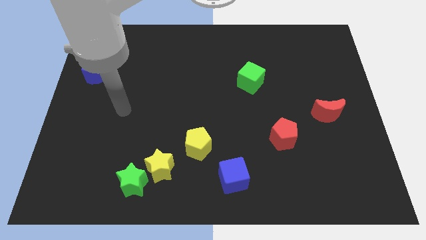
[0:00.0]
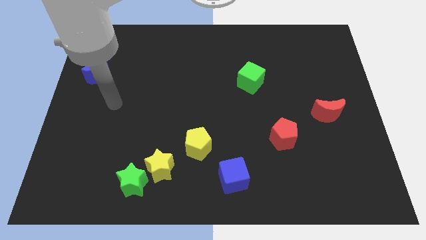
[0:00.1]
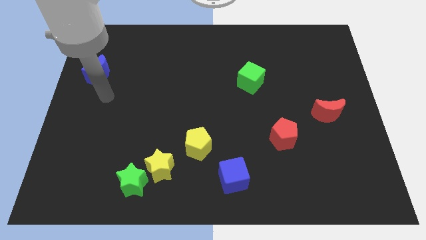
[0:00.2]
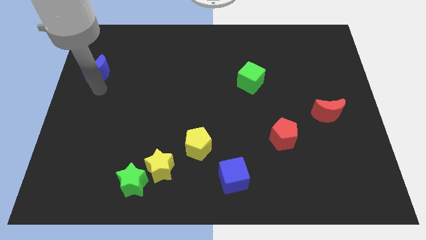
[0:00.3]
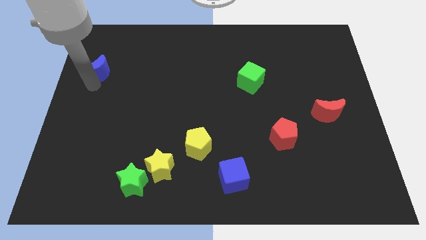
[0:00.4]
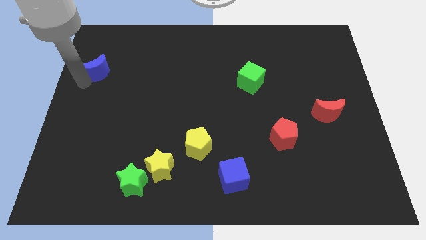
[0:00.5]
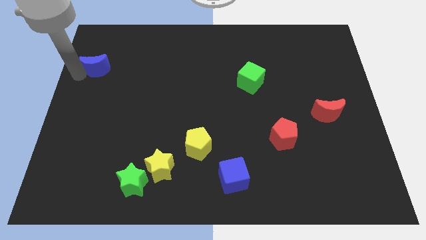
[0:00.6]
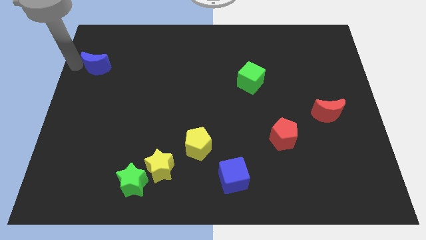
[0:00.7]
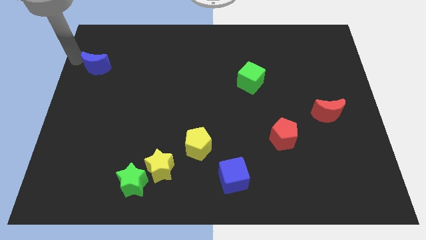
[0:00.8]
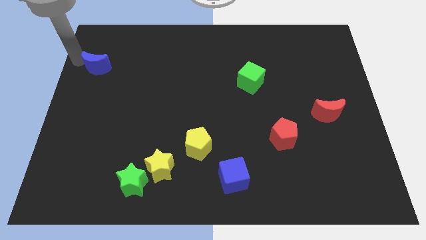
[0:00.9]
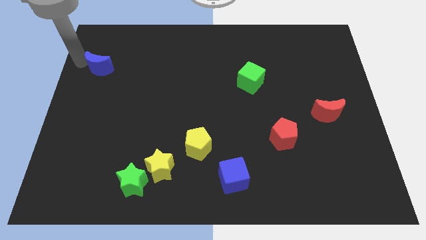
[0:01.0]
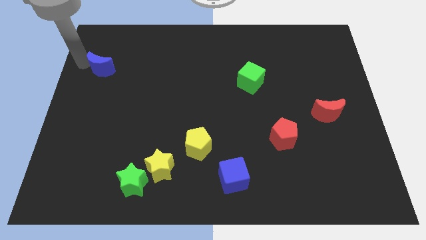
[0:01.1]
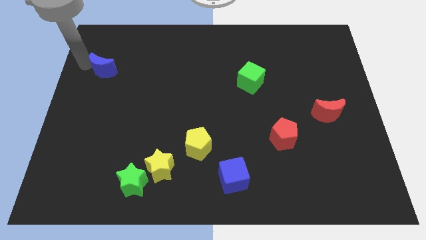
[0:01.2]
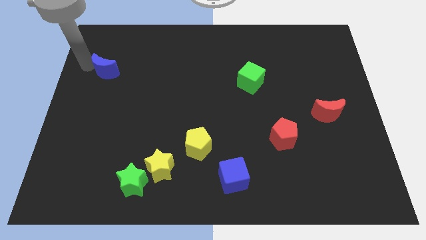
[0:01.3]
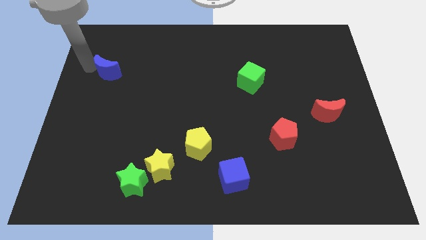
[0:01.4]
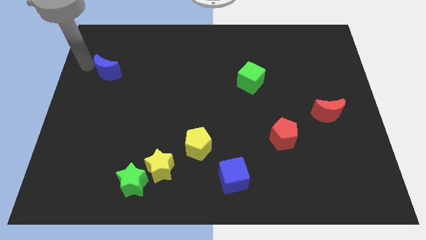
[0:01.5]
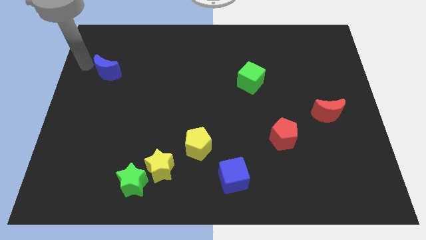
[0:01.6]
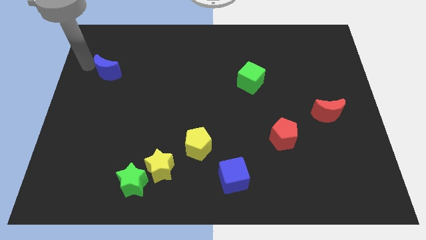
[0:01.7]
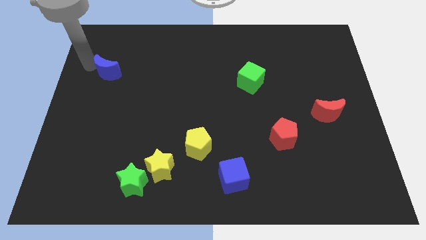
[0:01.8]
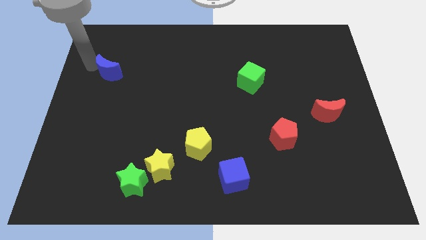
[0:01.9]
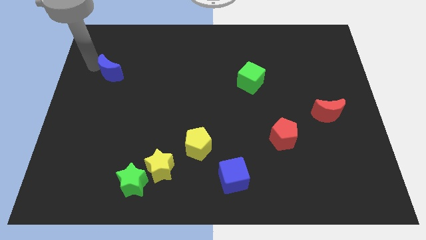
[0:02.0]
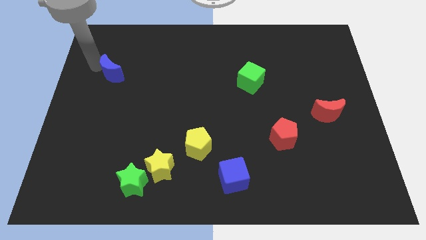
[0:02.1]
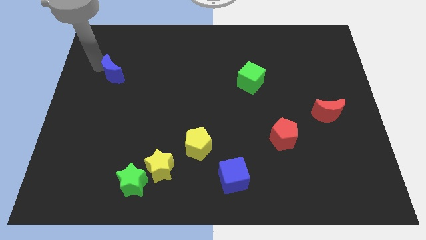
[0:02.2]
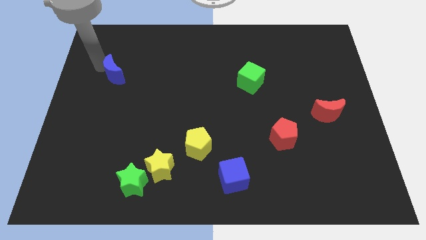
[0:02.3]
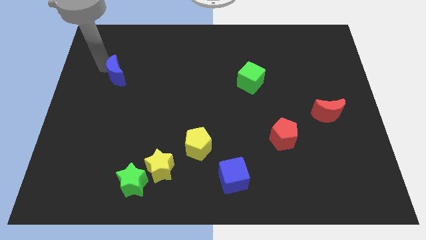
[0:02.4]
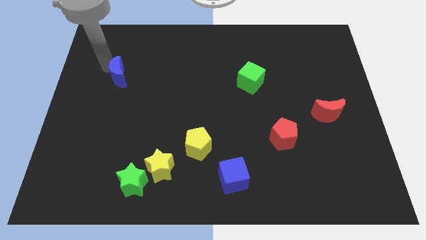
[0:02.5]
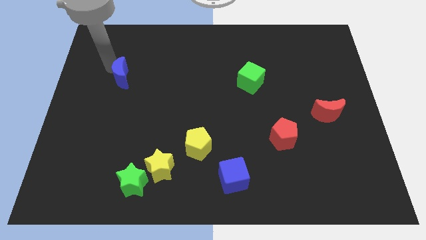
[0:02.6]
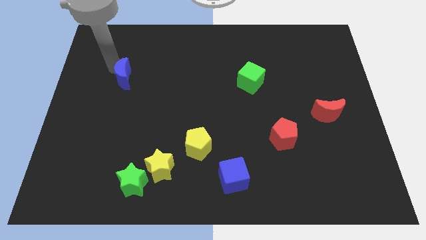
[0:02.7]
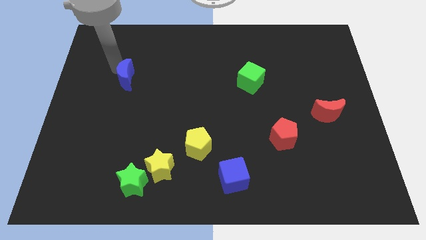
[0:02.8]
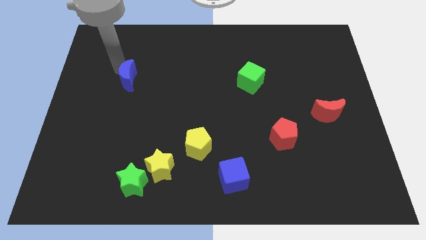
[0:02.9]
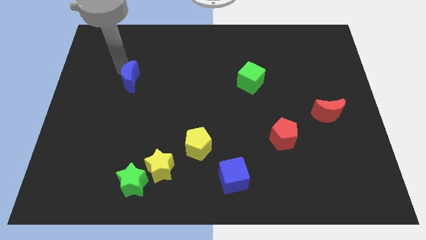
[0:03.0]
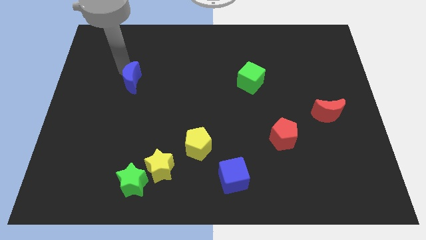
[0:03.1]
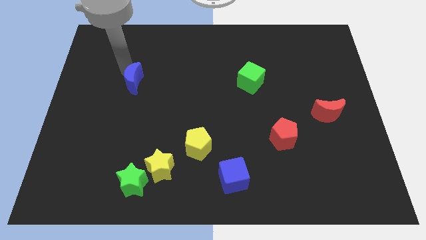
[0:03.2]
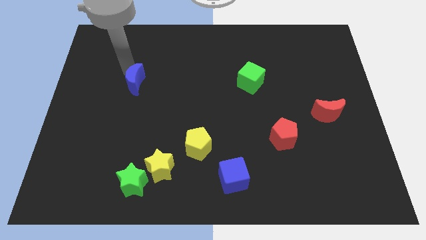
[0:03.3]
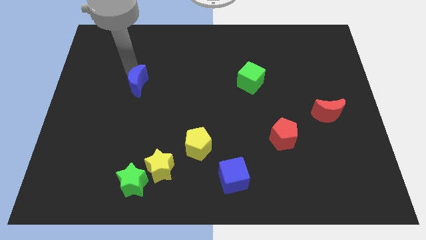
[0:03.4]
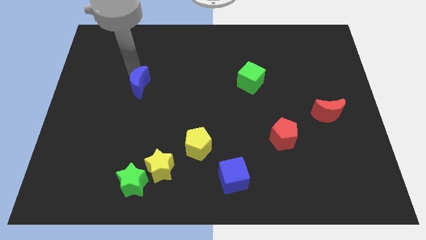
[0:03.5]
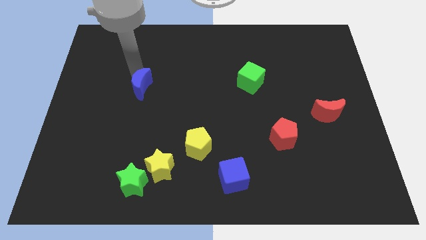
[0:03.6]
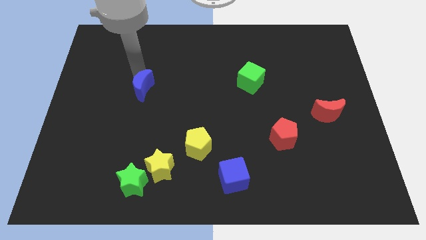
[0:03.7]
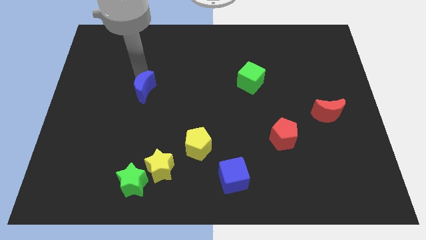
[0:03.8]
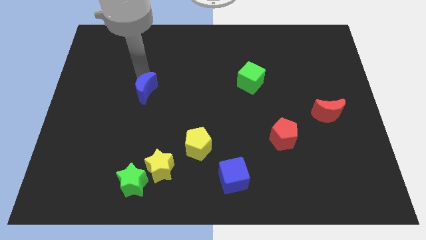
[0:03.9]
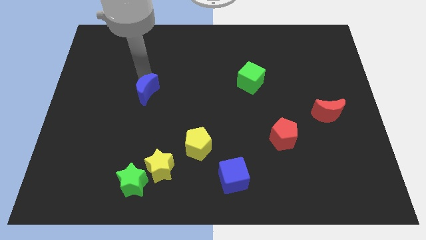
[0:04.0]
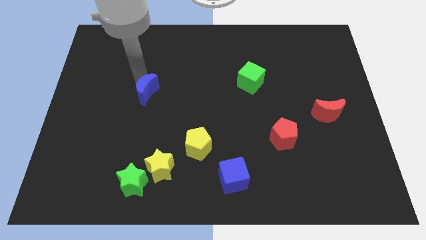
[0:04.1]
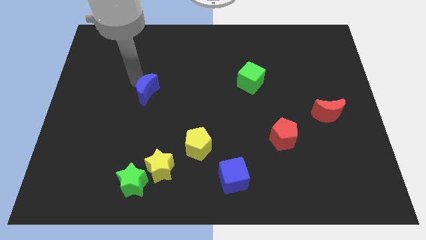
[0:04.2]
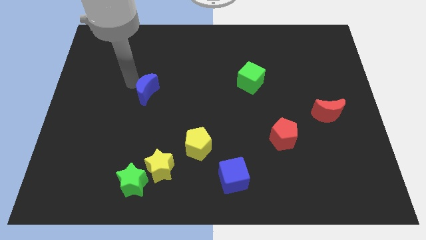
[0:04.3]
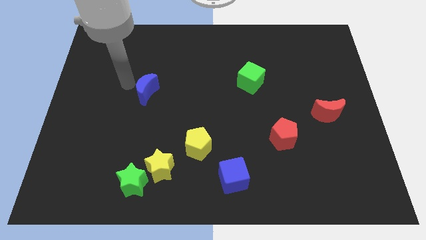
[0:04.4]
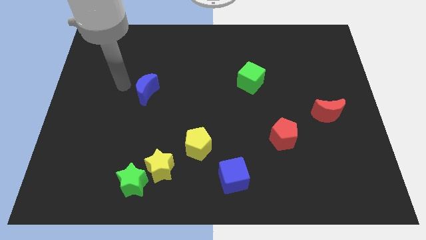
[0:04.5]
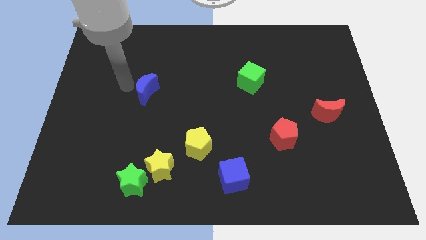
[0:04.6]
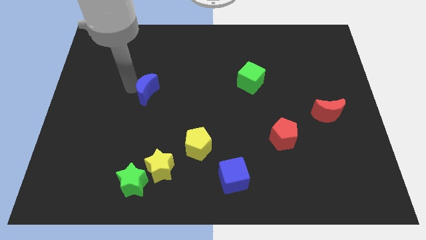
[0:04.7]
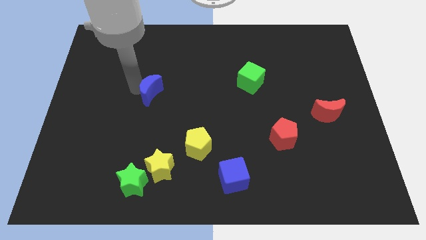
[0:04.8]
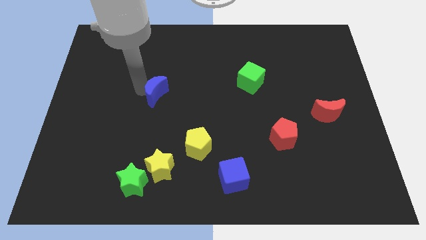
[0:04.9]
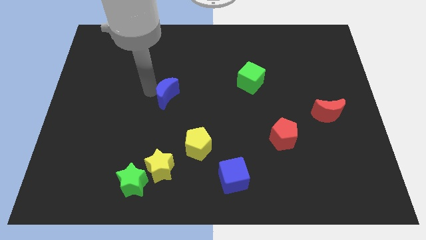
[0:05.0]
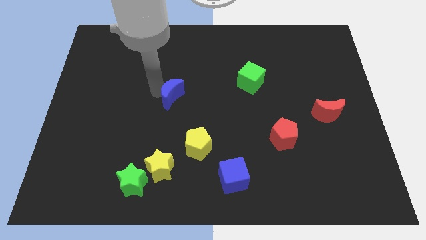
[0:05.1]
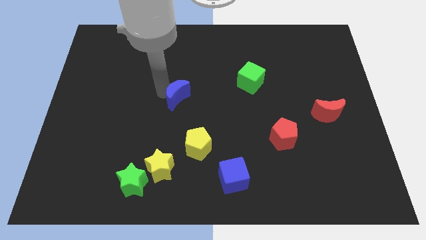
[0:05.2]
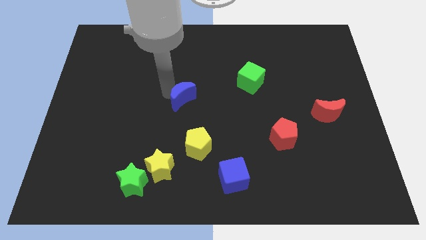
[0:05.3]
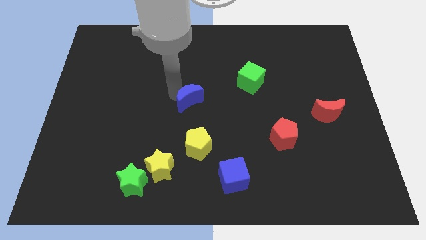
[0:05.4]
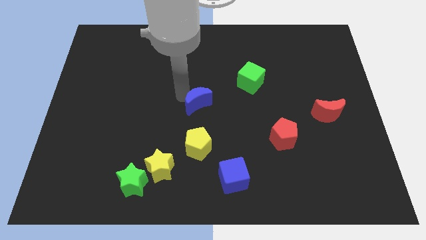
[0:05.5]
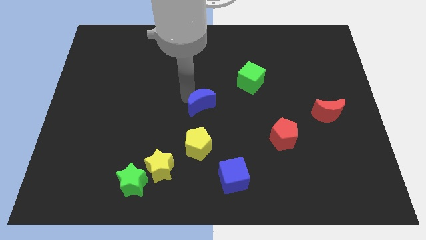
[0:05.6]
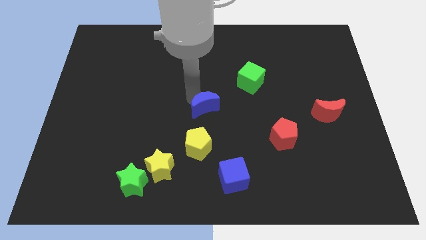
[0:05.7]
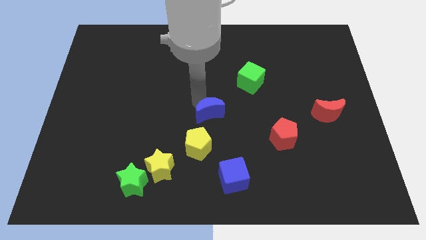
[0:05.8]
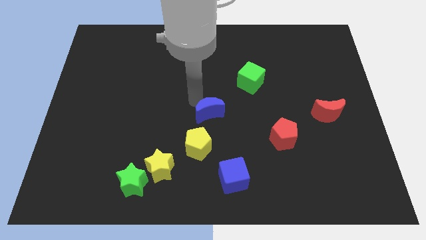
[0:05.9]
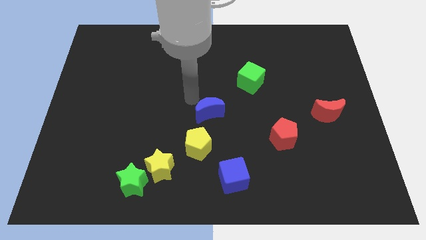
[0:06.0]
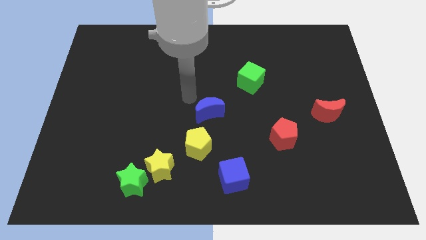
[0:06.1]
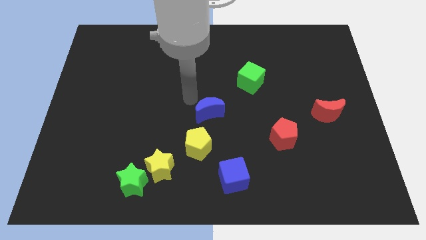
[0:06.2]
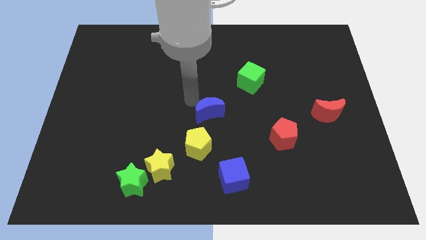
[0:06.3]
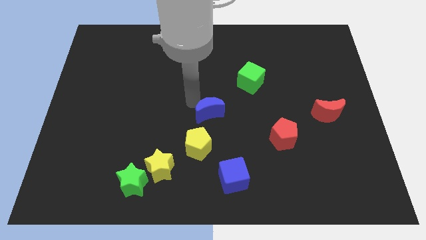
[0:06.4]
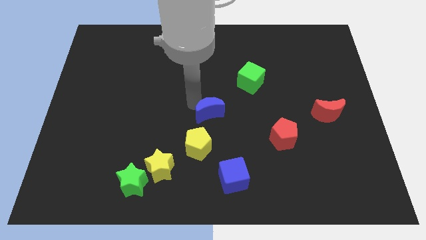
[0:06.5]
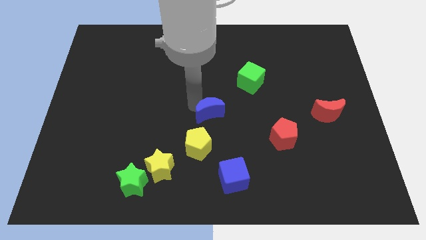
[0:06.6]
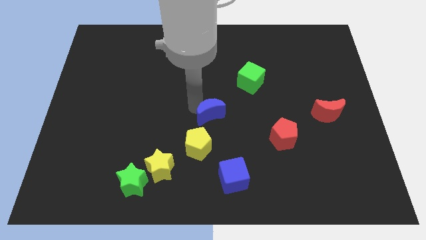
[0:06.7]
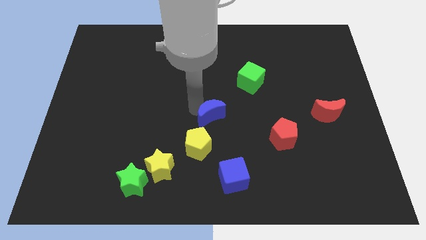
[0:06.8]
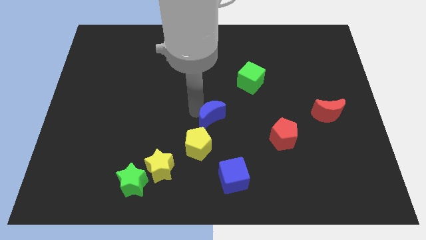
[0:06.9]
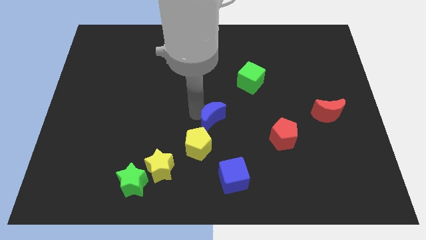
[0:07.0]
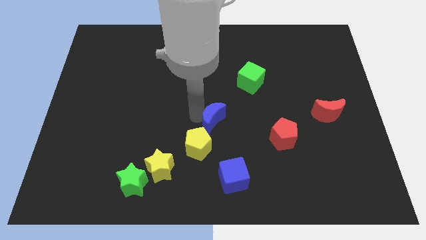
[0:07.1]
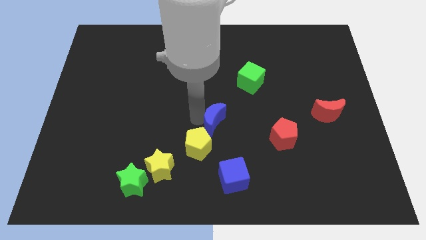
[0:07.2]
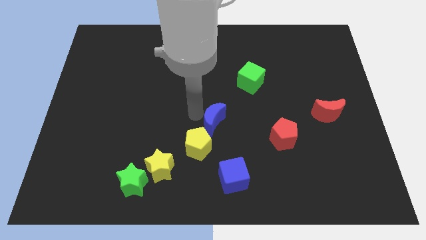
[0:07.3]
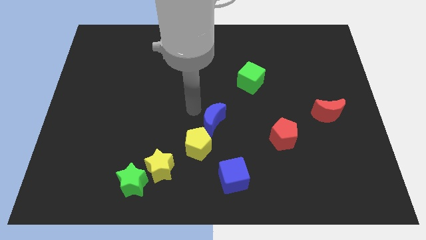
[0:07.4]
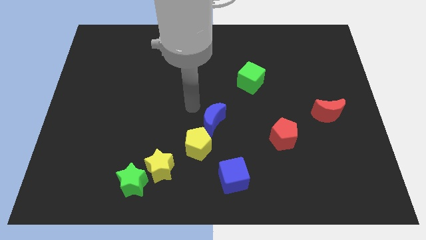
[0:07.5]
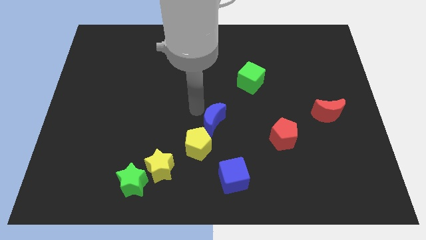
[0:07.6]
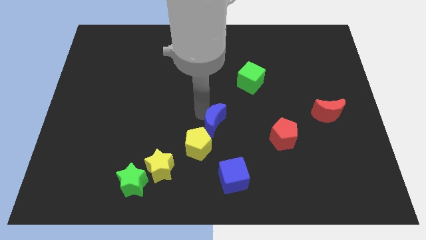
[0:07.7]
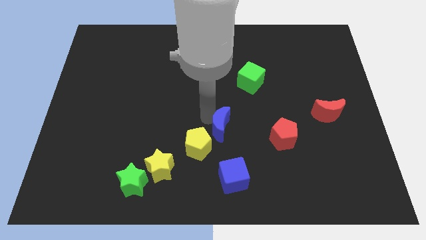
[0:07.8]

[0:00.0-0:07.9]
slide the blue moon just left of the red pentagon

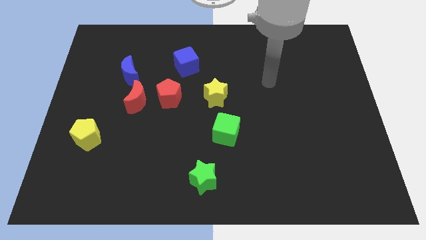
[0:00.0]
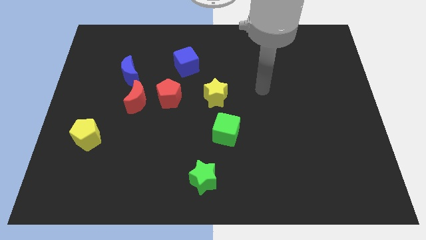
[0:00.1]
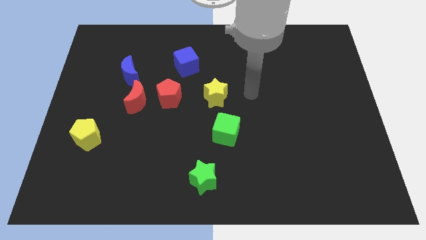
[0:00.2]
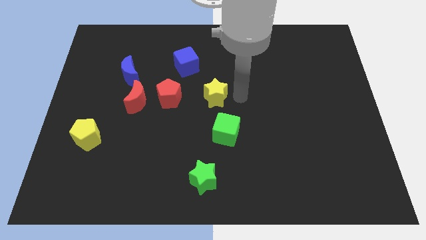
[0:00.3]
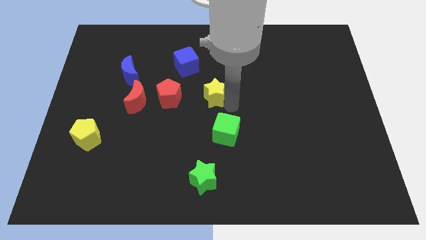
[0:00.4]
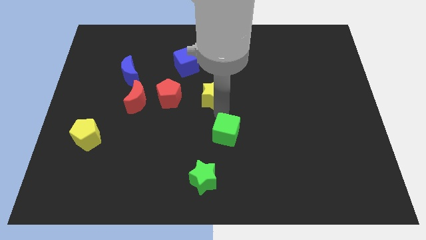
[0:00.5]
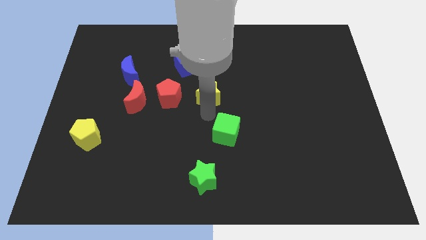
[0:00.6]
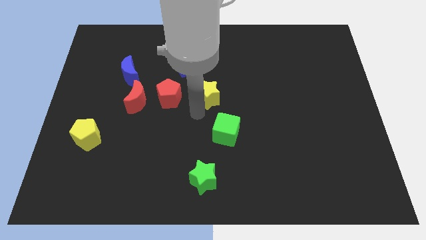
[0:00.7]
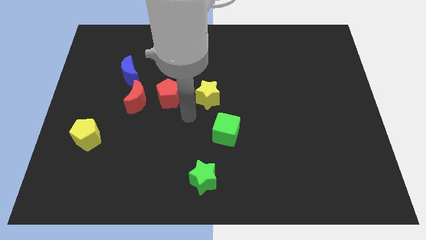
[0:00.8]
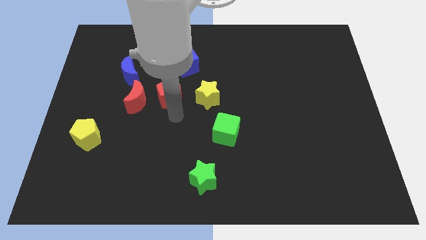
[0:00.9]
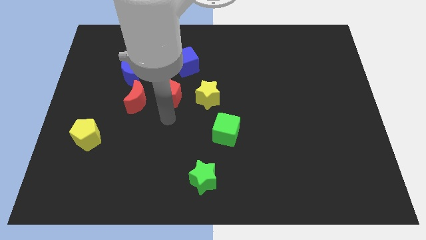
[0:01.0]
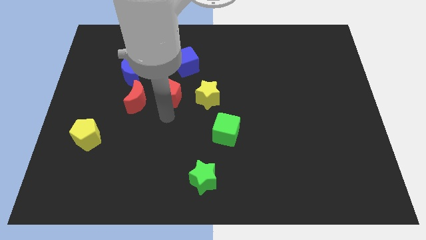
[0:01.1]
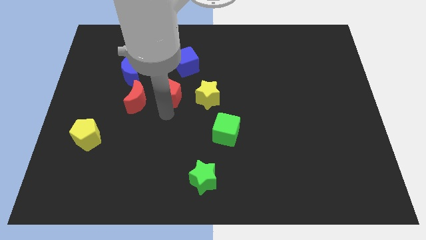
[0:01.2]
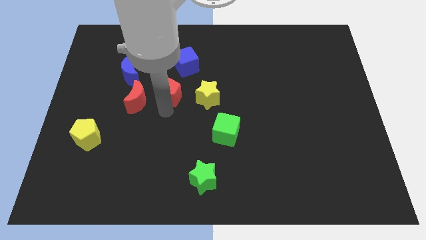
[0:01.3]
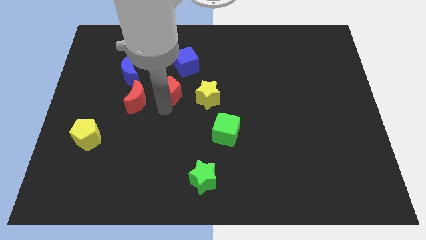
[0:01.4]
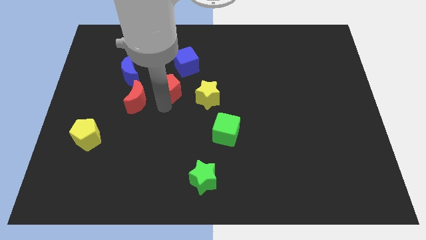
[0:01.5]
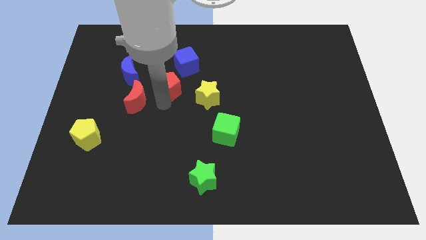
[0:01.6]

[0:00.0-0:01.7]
push the red pentagon just right of the blue moon
